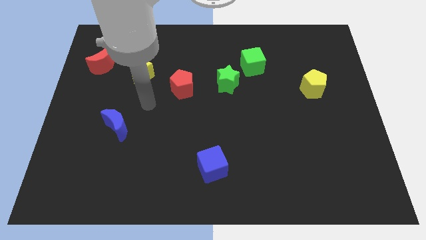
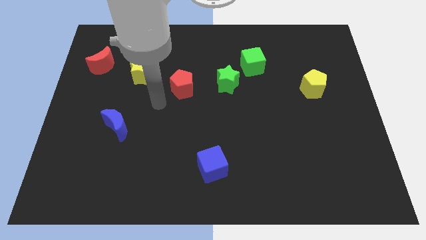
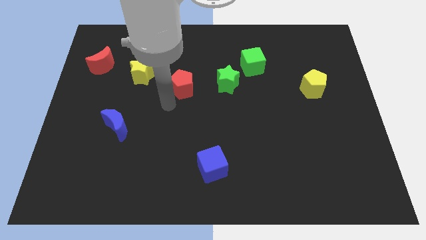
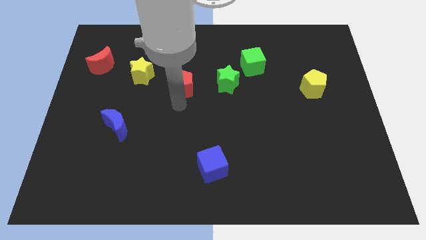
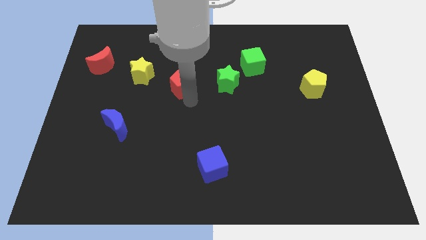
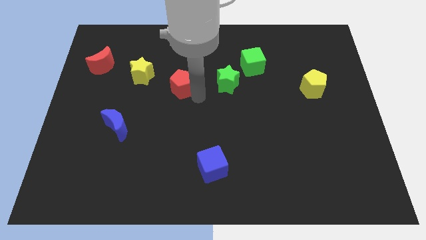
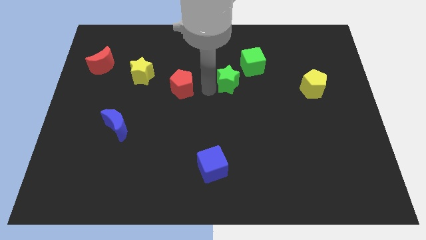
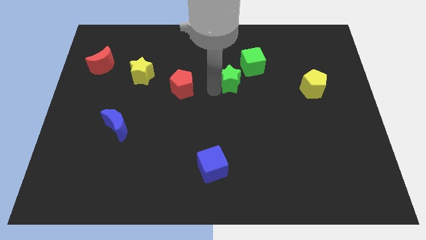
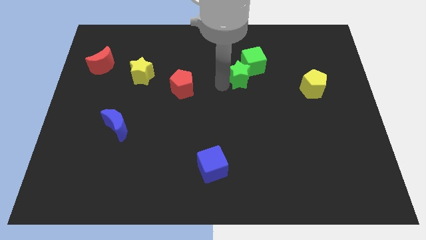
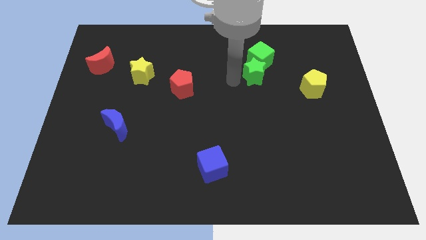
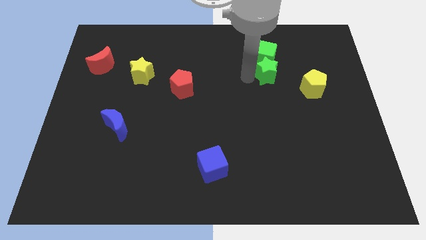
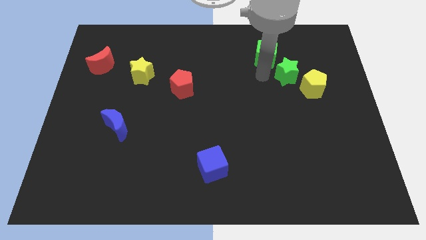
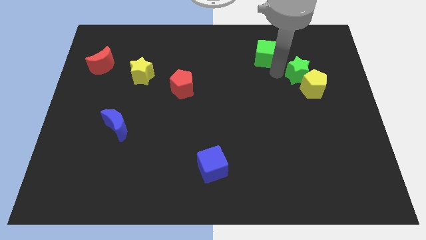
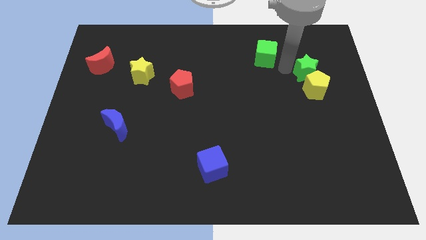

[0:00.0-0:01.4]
pull the green cube apart from the green star

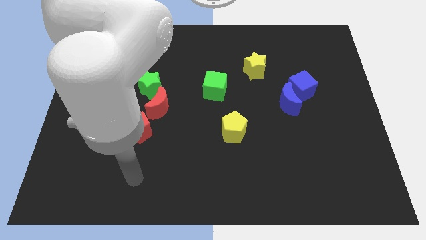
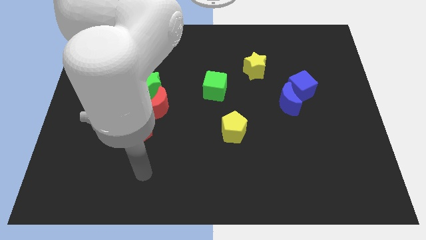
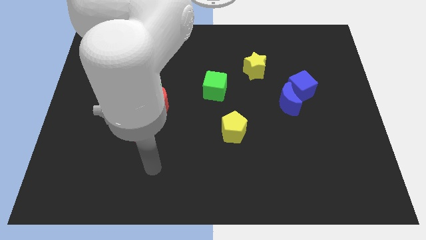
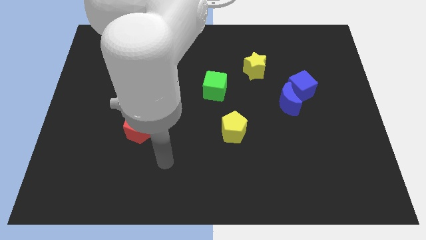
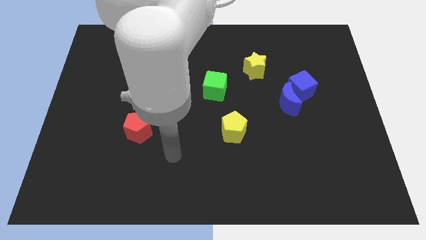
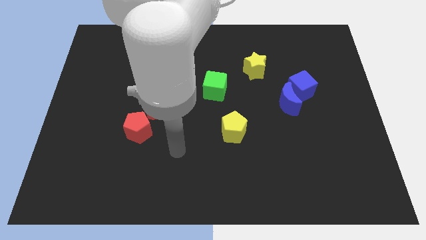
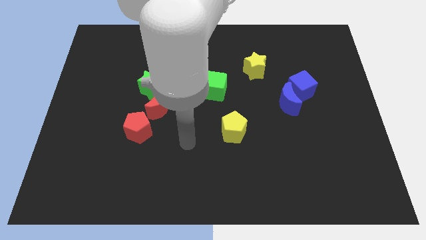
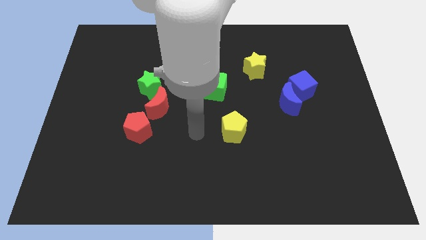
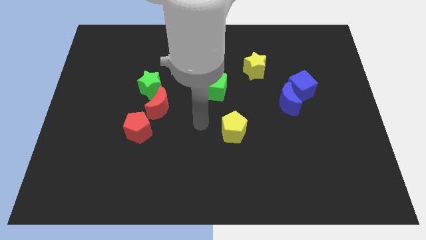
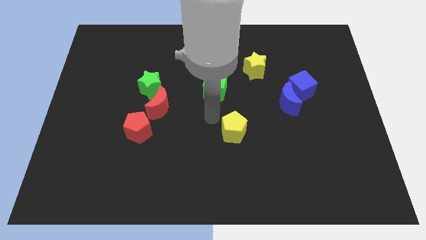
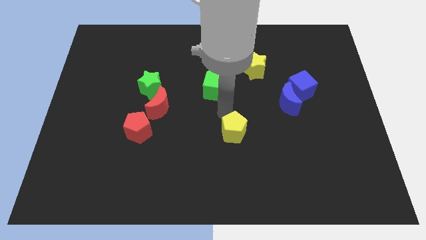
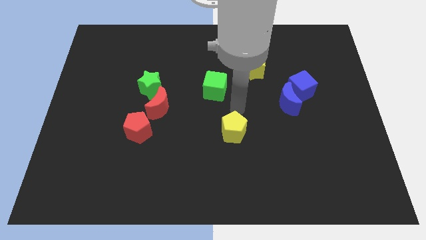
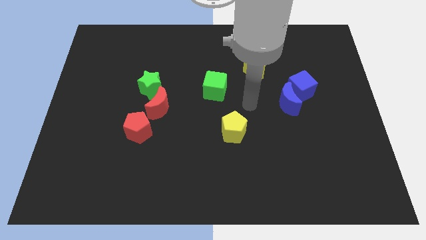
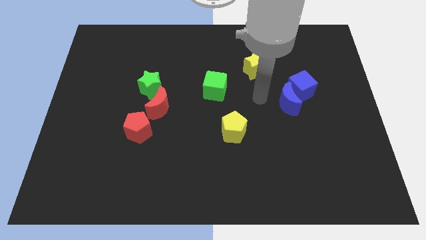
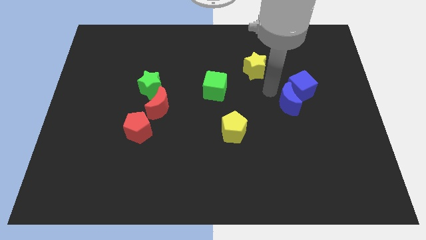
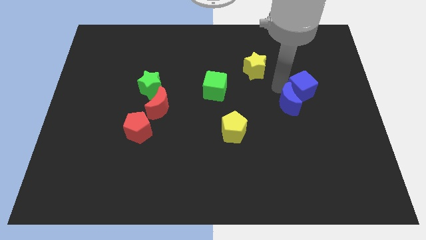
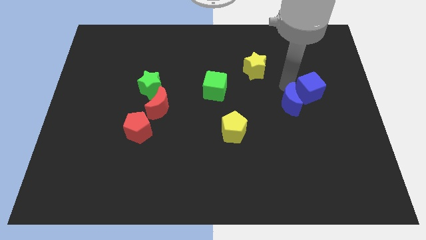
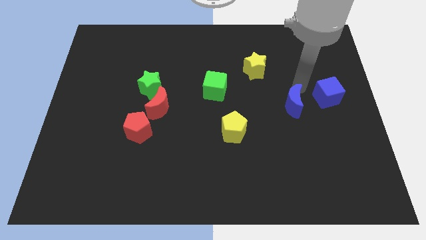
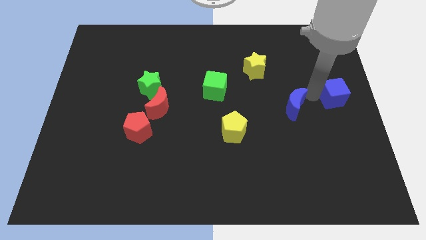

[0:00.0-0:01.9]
pull the blue moon apart from the blue cube

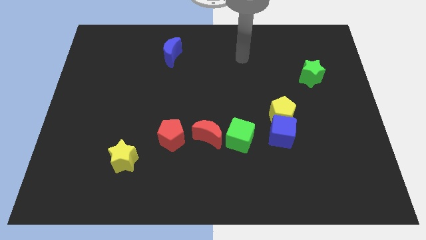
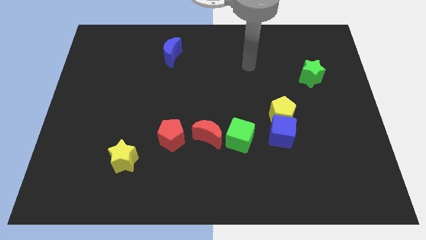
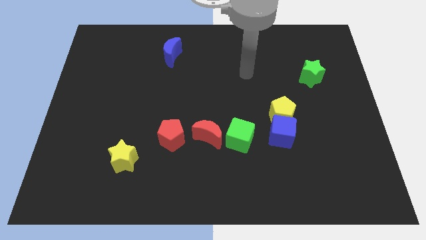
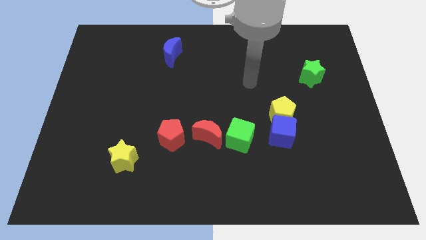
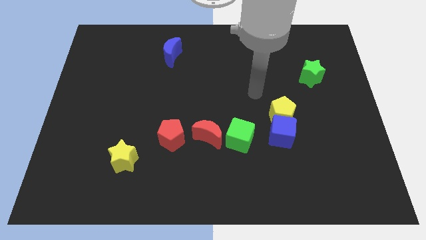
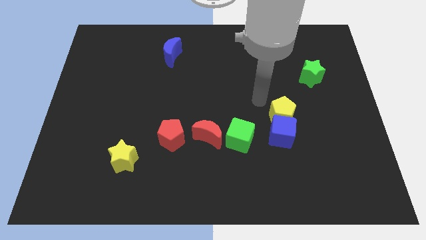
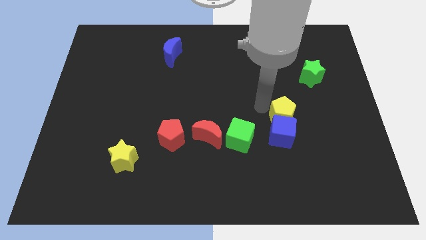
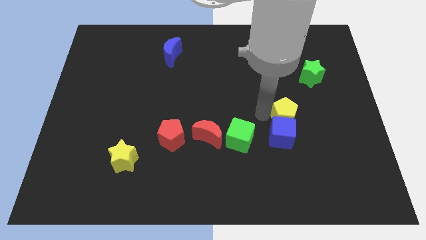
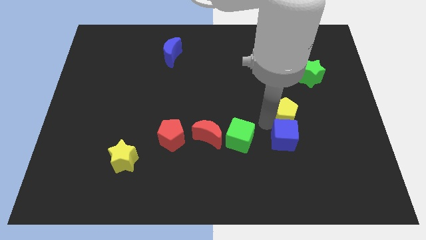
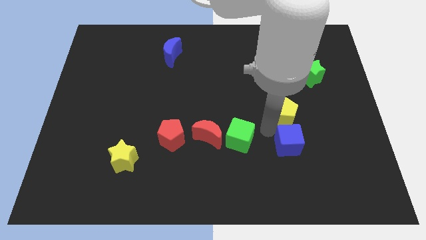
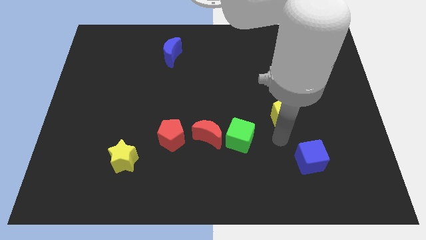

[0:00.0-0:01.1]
pull the yellow pentagon apart from the blue cube

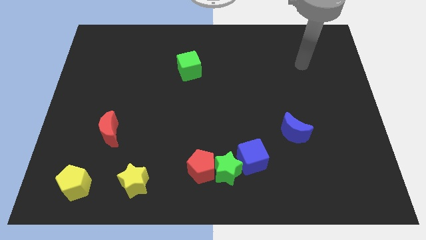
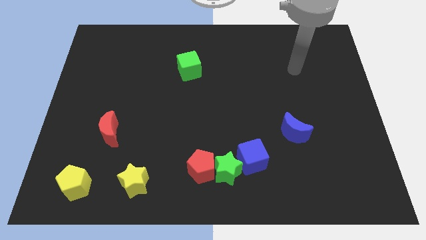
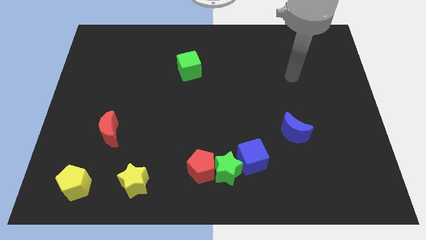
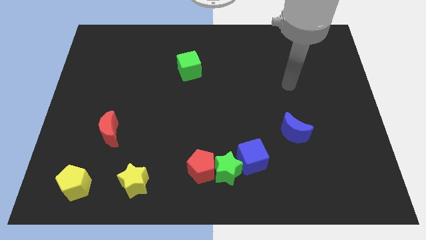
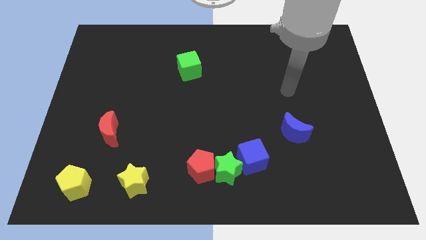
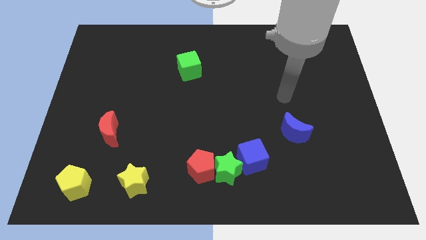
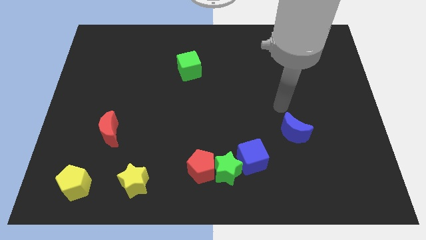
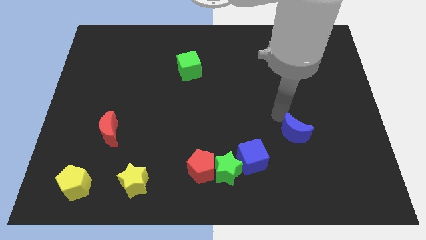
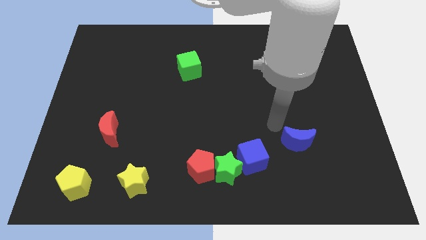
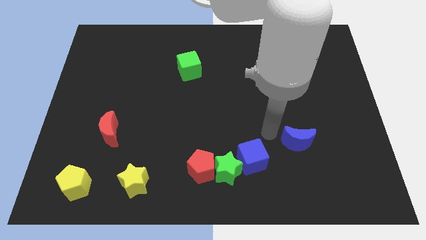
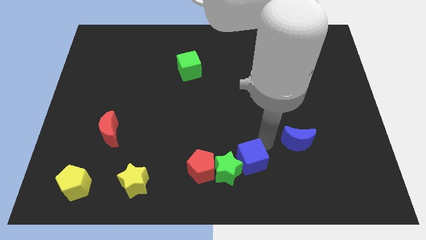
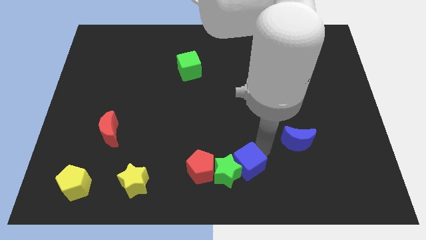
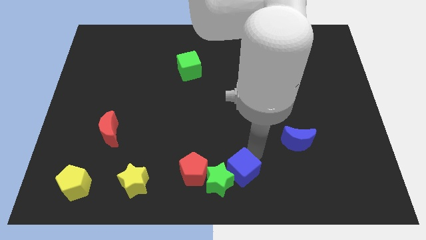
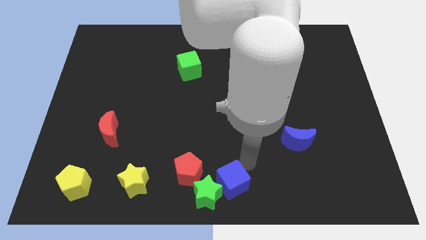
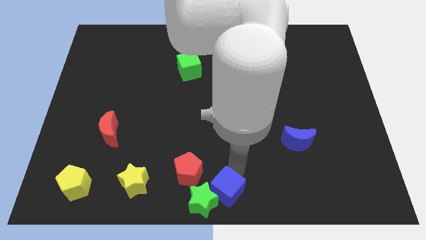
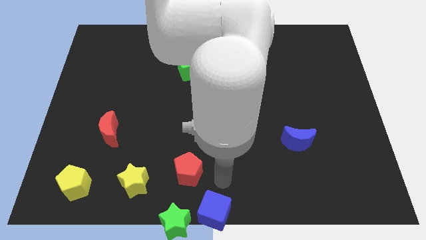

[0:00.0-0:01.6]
separate the red pentagon from the green star

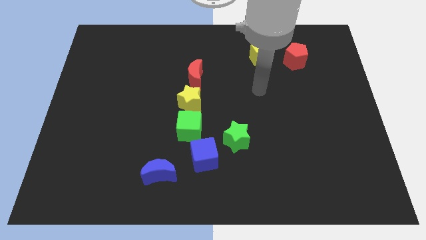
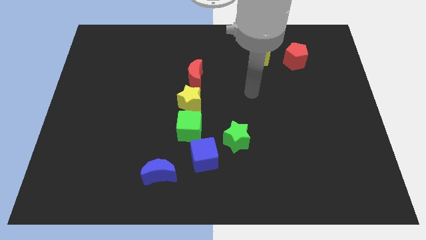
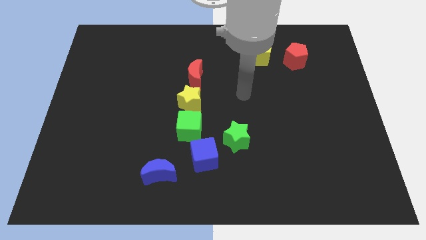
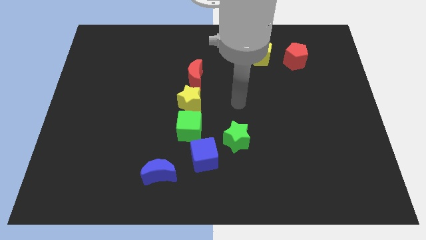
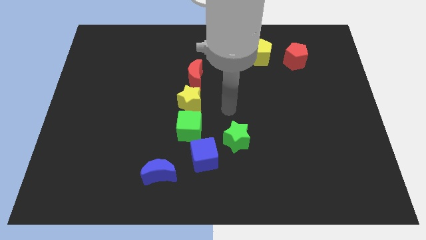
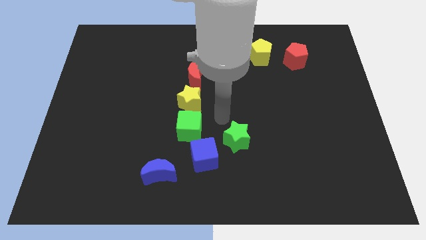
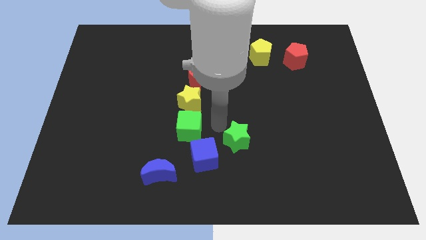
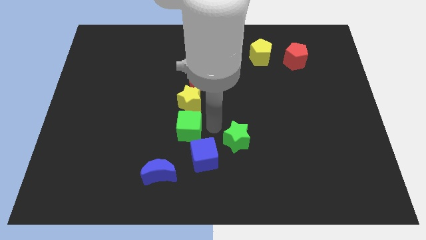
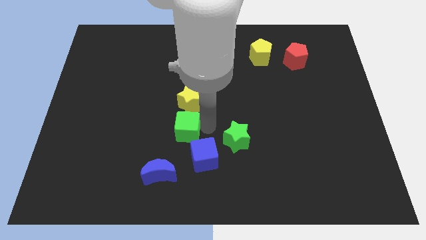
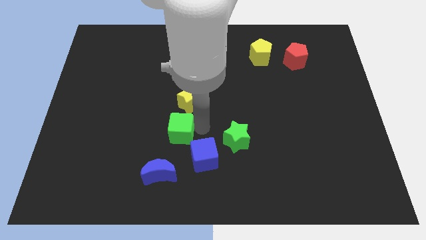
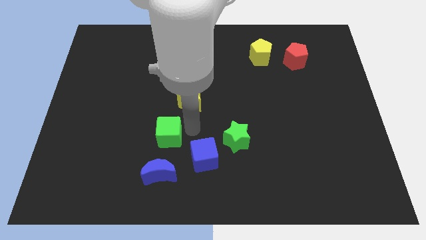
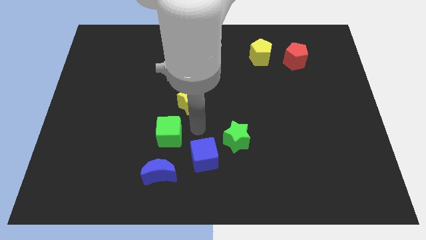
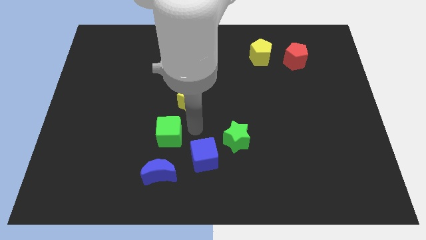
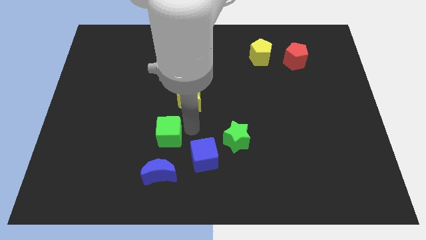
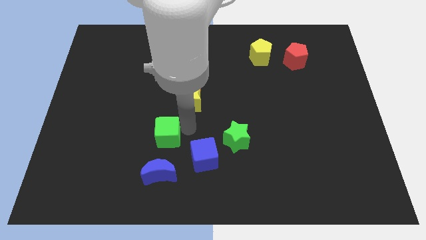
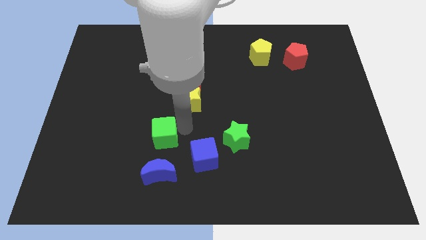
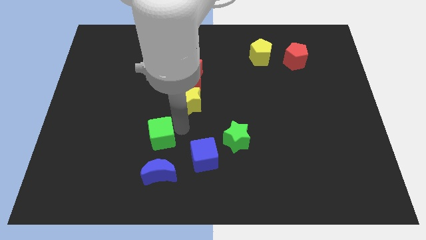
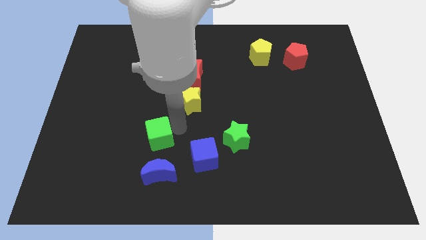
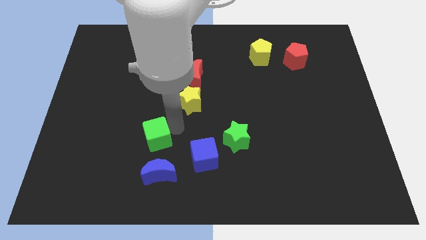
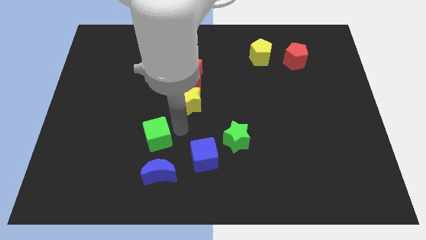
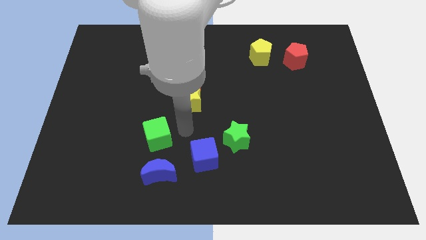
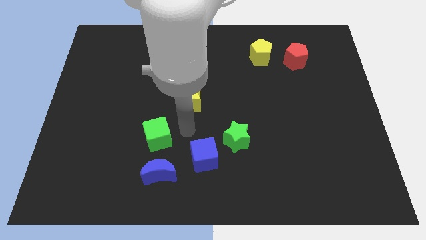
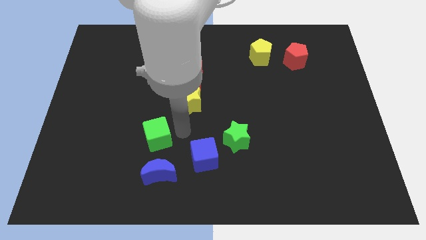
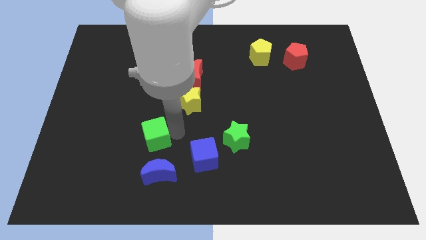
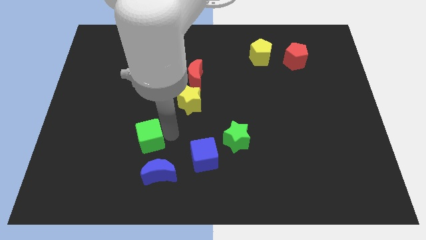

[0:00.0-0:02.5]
move the green cube away from the yellow star and blue cube

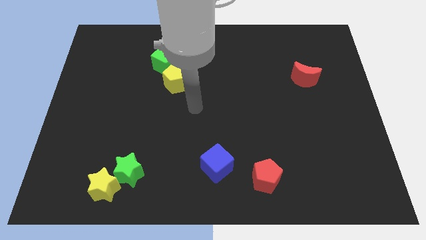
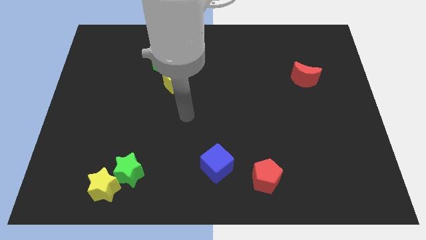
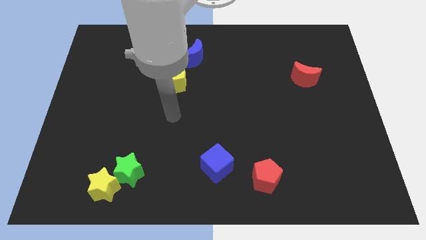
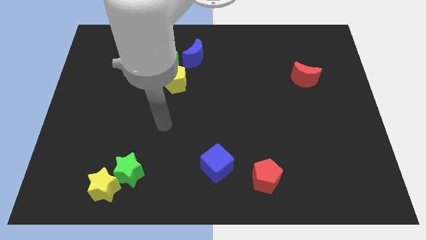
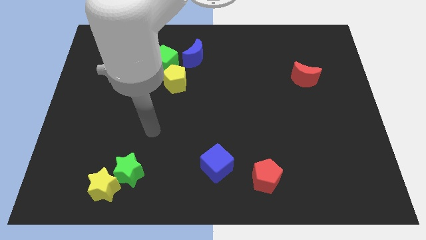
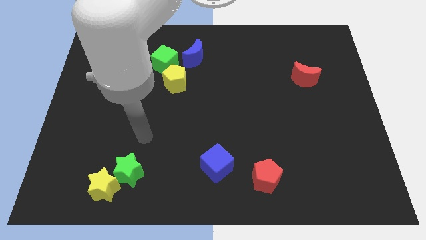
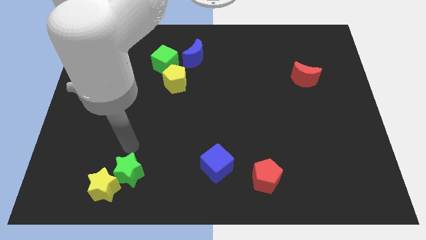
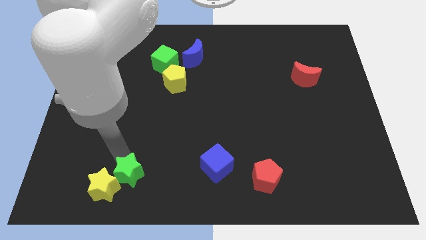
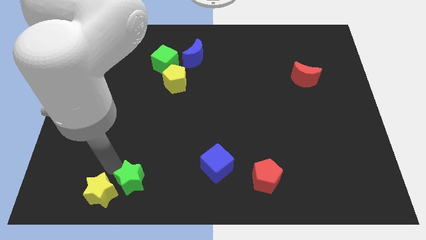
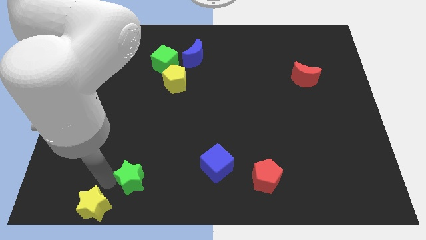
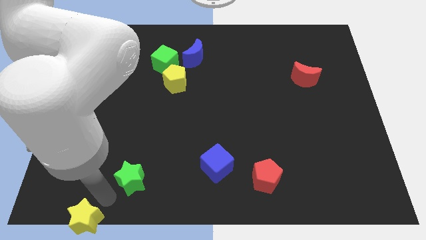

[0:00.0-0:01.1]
separate the green star from the yellow star
